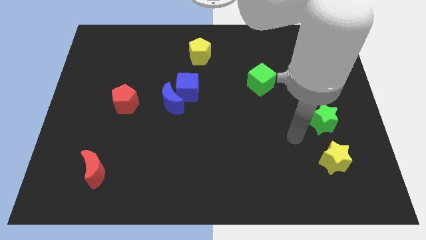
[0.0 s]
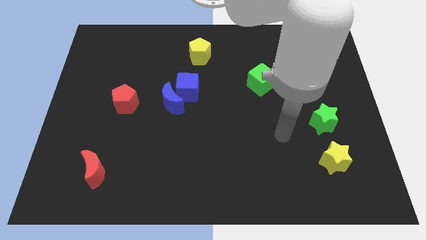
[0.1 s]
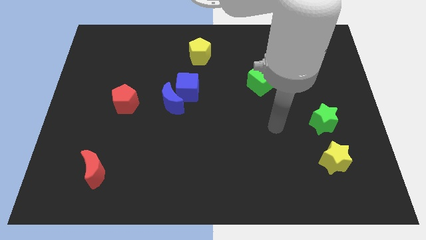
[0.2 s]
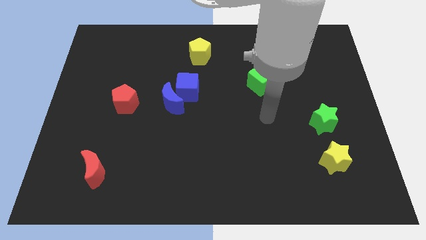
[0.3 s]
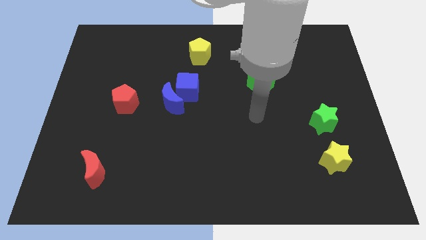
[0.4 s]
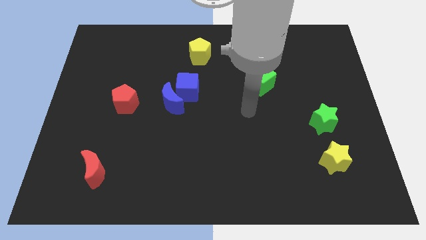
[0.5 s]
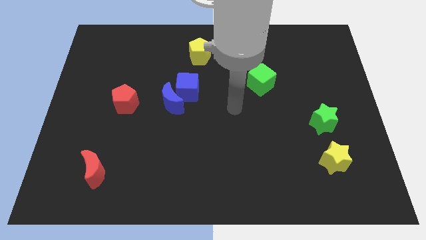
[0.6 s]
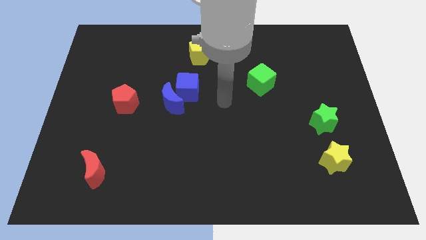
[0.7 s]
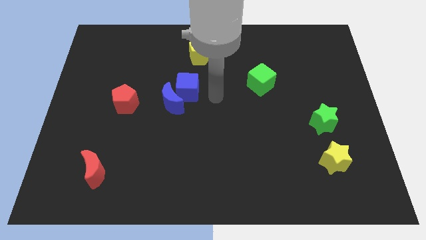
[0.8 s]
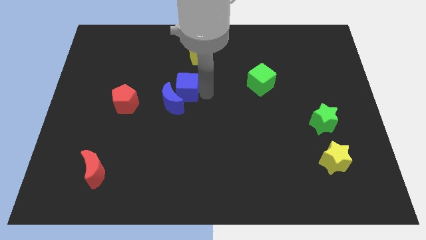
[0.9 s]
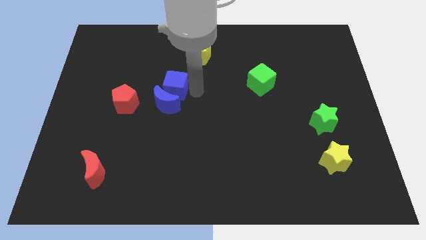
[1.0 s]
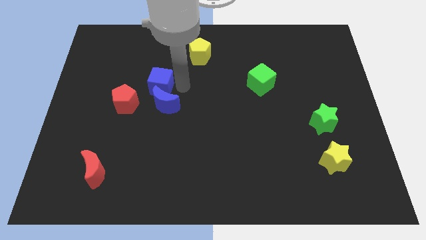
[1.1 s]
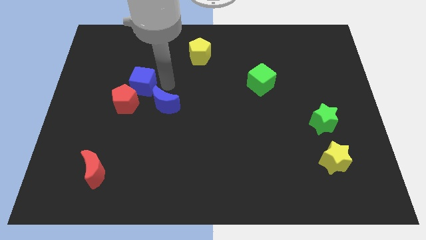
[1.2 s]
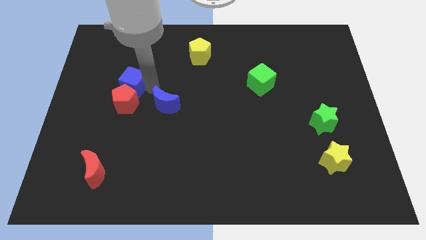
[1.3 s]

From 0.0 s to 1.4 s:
pull the blue moon apart from the blue cube

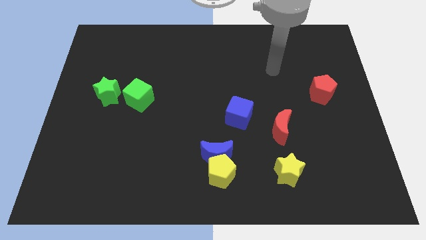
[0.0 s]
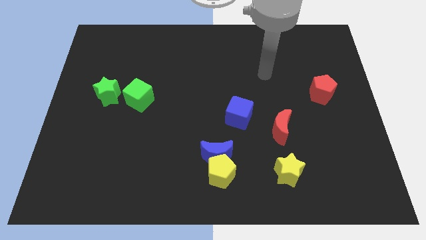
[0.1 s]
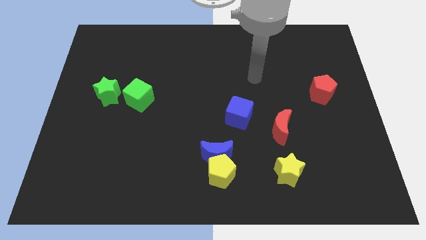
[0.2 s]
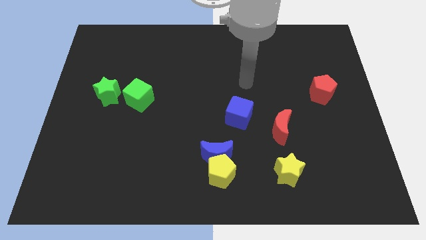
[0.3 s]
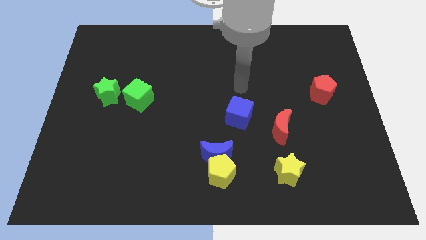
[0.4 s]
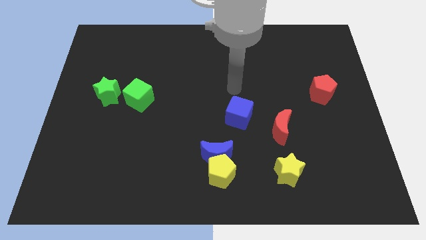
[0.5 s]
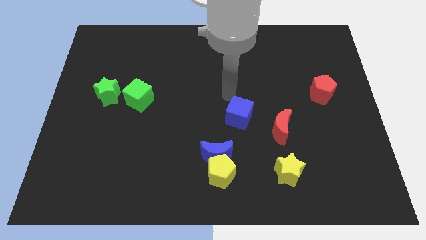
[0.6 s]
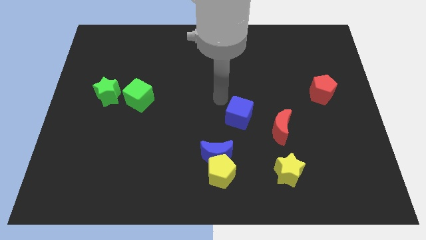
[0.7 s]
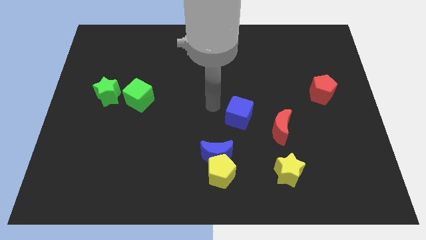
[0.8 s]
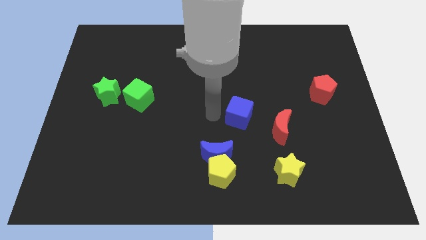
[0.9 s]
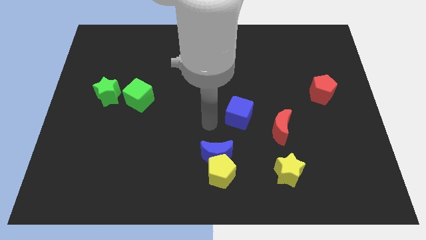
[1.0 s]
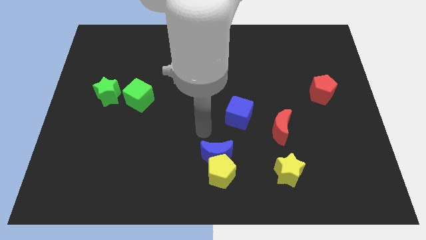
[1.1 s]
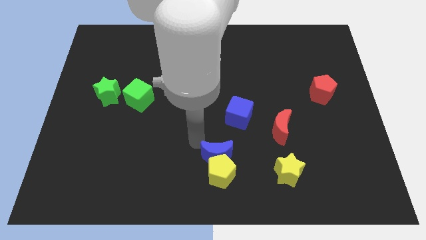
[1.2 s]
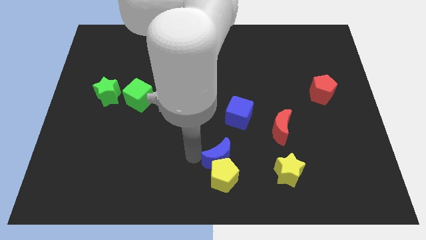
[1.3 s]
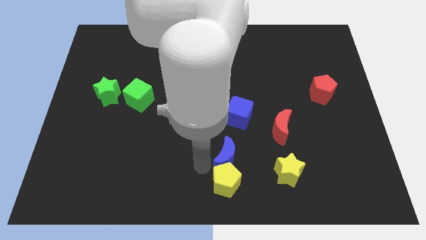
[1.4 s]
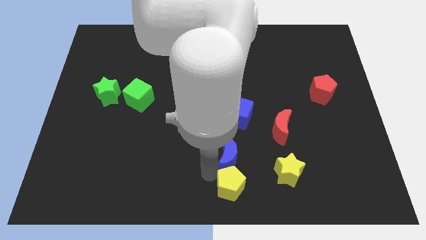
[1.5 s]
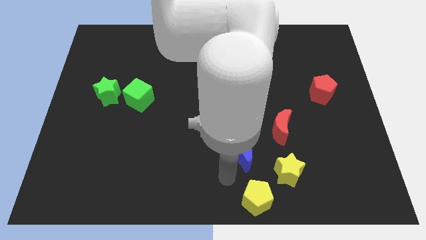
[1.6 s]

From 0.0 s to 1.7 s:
move the blue moon away from the yellow pentagon

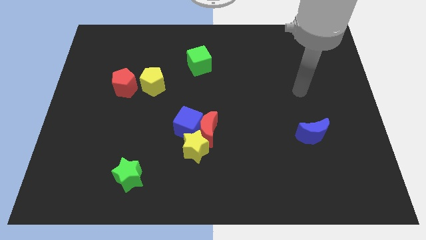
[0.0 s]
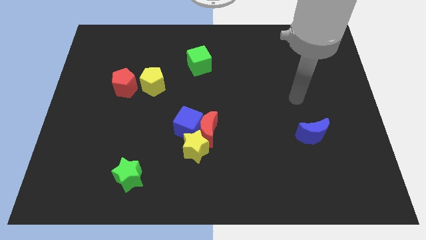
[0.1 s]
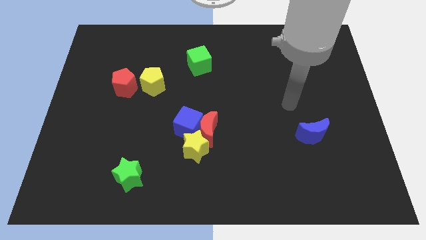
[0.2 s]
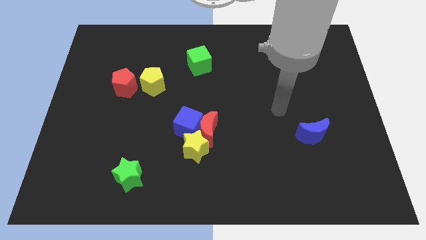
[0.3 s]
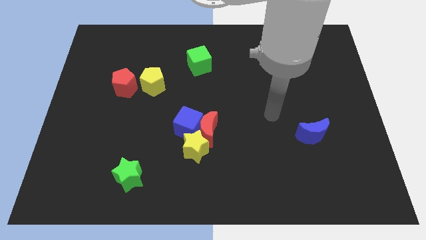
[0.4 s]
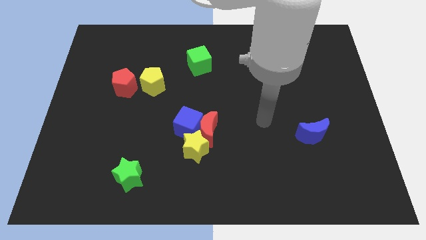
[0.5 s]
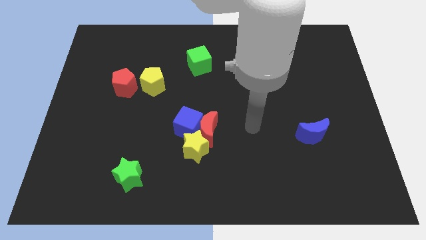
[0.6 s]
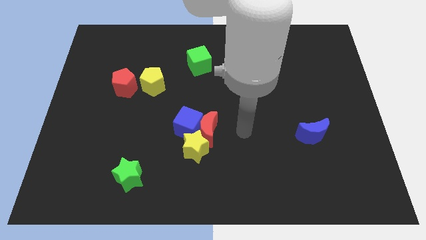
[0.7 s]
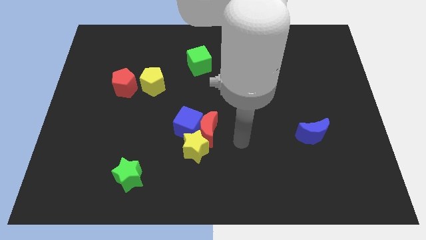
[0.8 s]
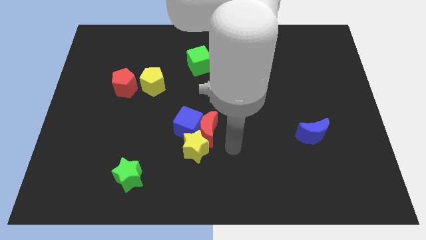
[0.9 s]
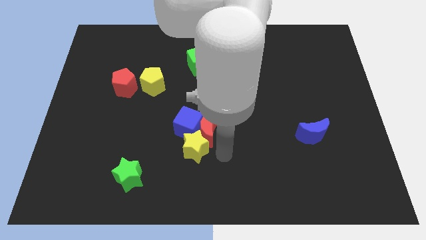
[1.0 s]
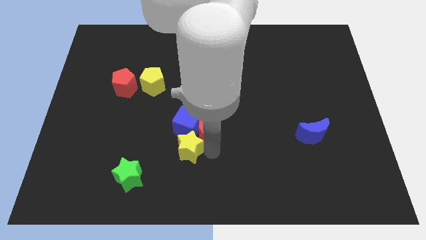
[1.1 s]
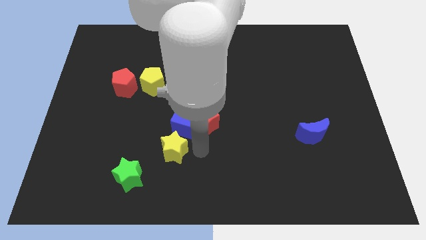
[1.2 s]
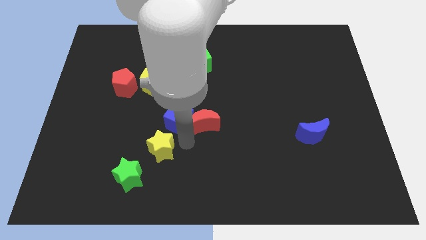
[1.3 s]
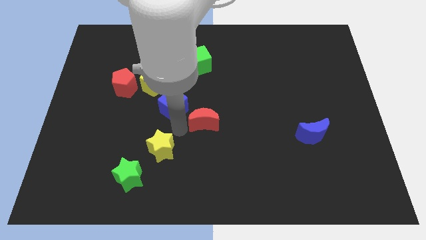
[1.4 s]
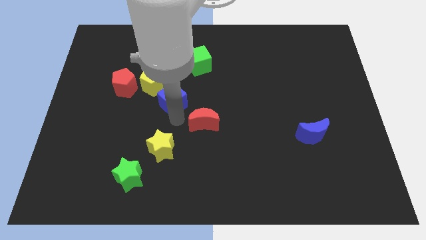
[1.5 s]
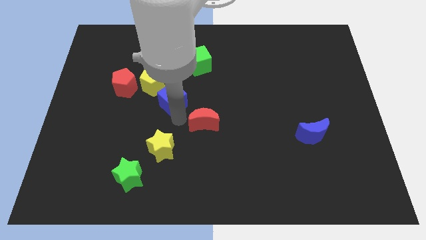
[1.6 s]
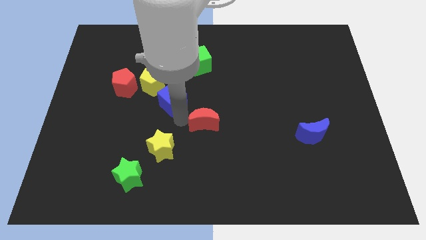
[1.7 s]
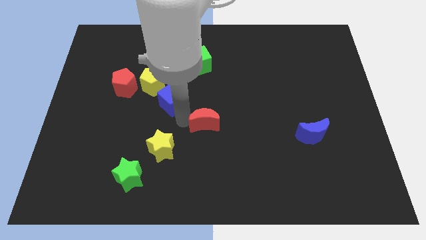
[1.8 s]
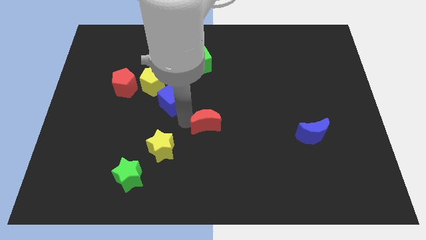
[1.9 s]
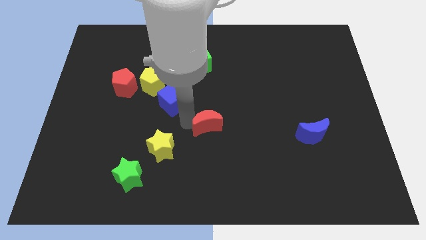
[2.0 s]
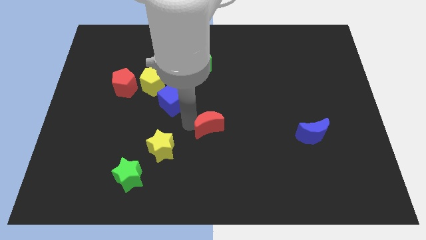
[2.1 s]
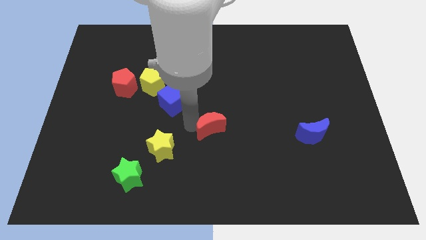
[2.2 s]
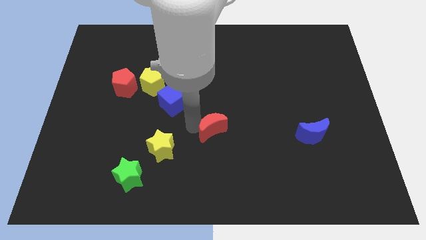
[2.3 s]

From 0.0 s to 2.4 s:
separate the red moon from the blue cube and yellow star

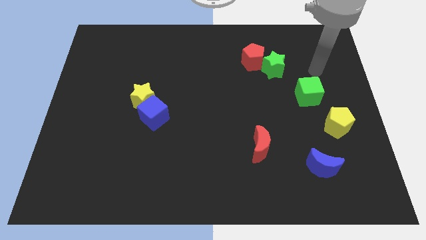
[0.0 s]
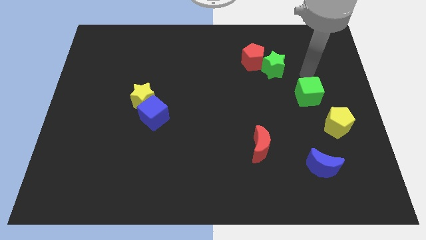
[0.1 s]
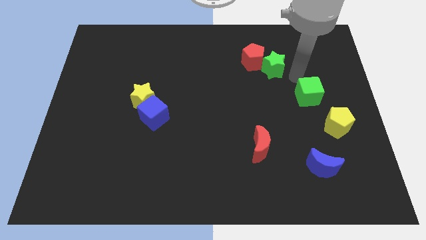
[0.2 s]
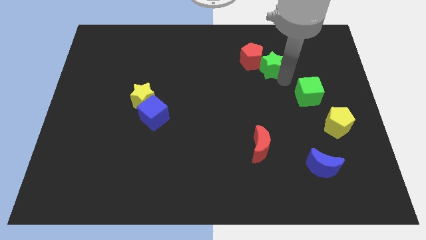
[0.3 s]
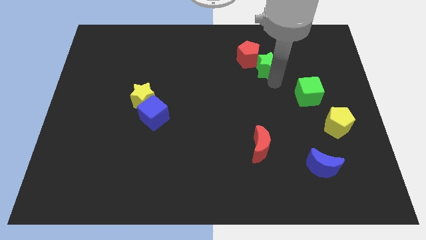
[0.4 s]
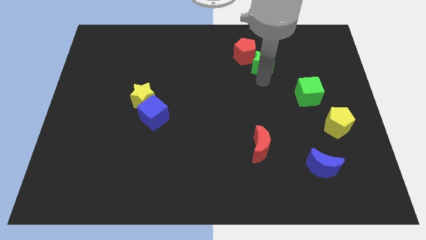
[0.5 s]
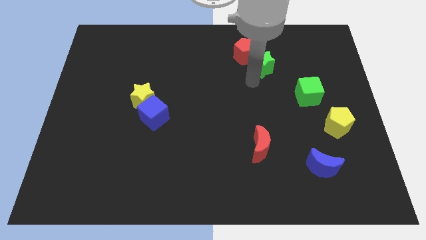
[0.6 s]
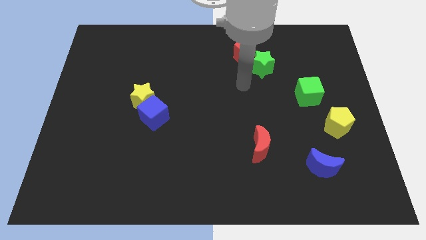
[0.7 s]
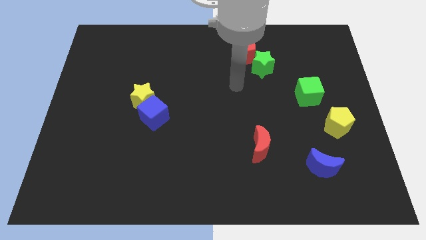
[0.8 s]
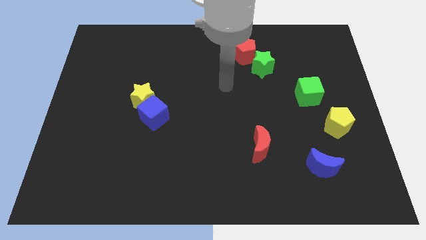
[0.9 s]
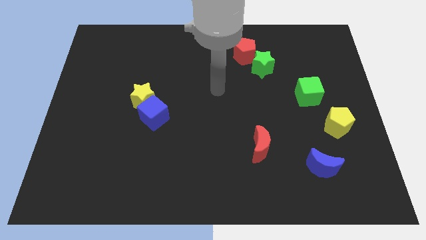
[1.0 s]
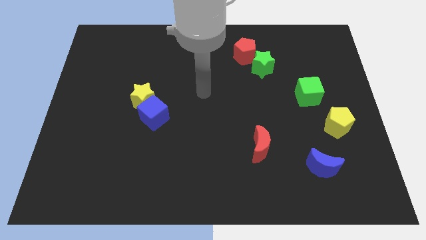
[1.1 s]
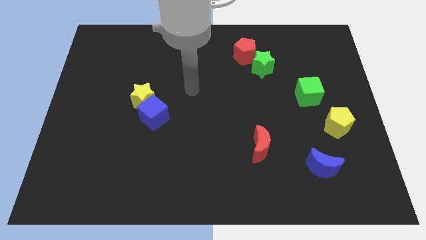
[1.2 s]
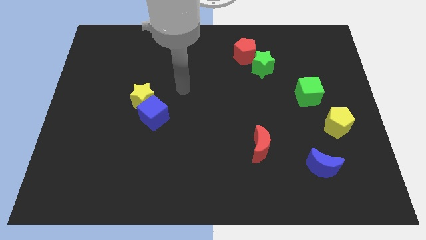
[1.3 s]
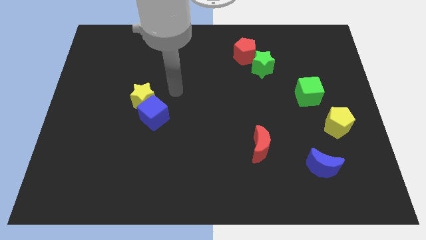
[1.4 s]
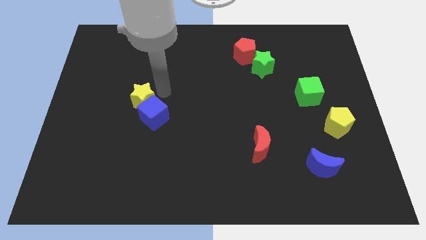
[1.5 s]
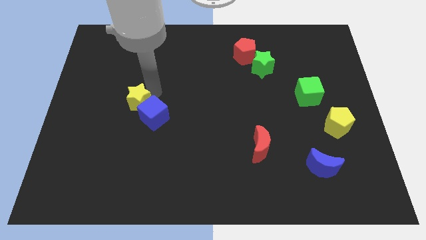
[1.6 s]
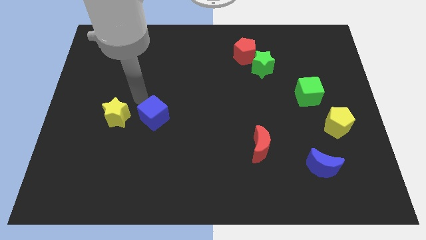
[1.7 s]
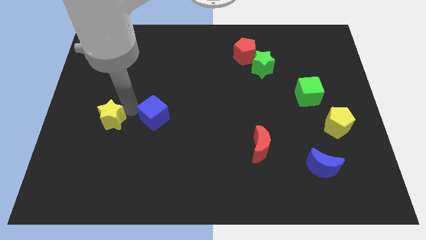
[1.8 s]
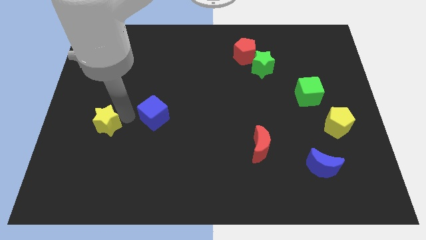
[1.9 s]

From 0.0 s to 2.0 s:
separate the blue cube from the yellow star

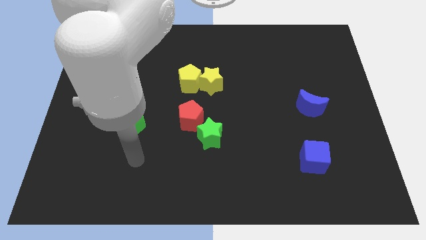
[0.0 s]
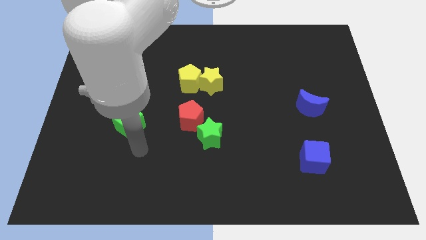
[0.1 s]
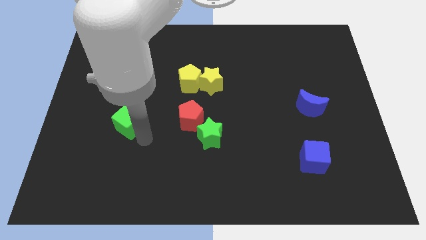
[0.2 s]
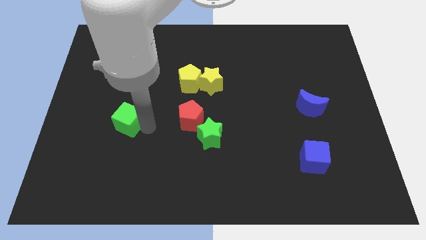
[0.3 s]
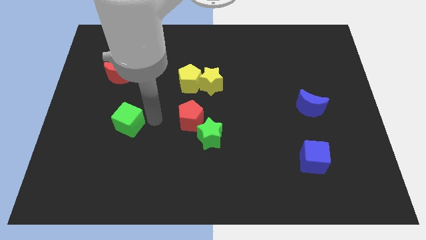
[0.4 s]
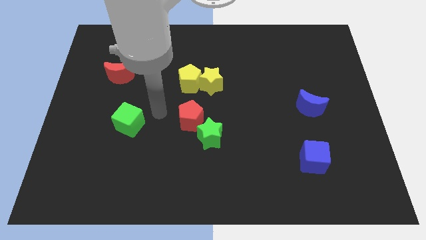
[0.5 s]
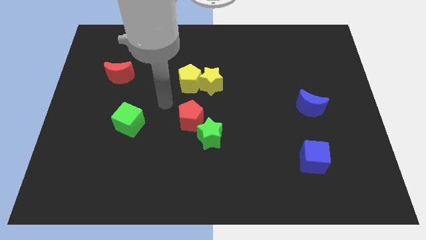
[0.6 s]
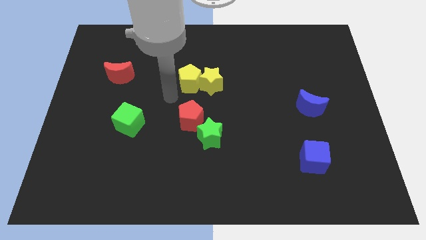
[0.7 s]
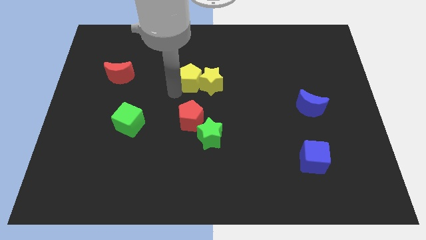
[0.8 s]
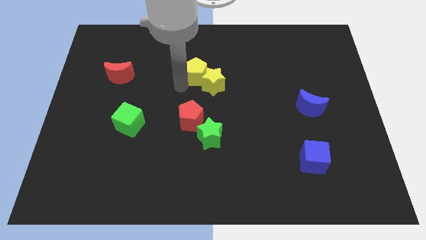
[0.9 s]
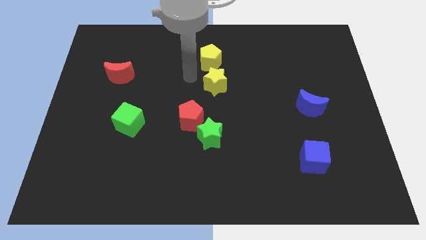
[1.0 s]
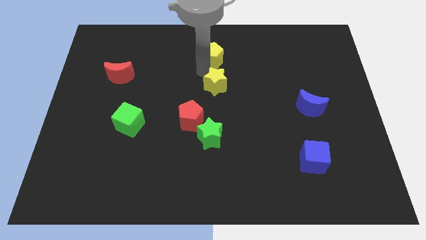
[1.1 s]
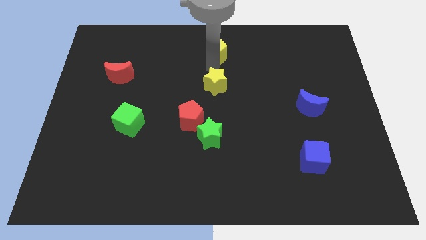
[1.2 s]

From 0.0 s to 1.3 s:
move the yellow star away from the yellow pentagon

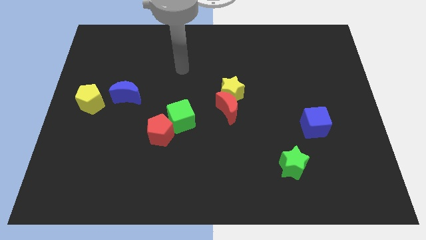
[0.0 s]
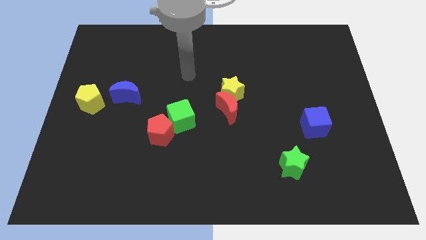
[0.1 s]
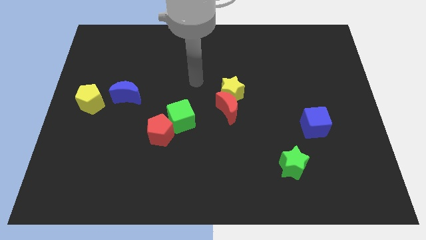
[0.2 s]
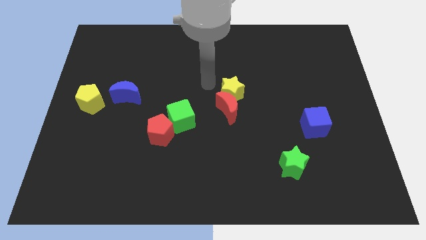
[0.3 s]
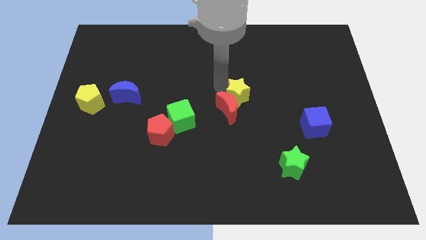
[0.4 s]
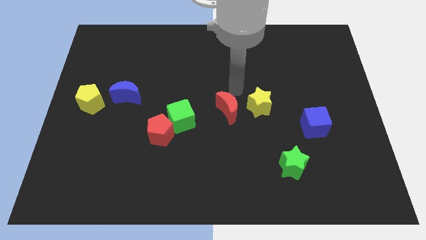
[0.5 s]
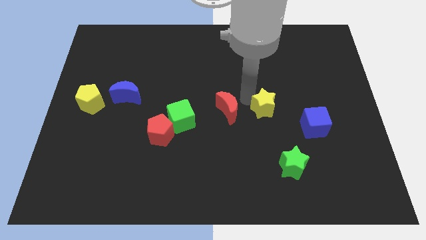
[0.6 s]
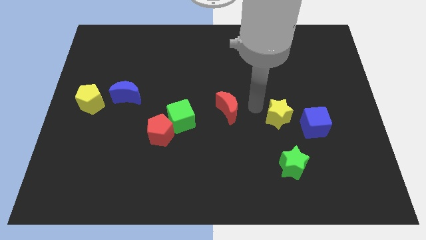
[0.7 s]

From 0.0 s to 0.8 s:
pull the red moon apart from the yellow star
